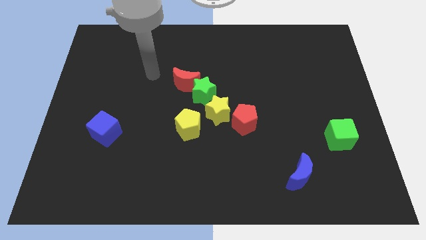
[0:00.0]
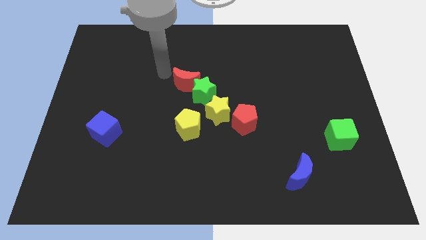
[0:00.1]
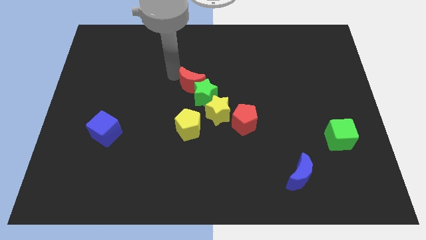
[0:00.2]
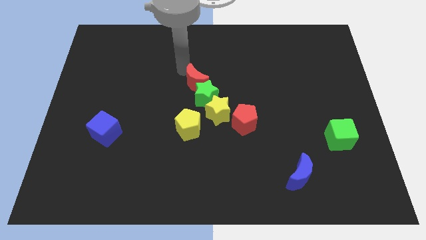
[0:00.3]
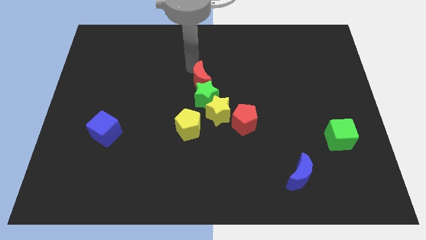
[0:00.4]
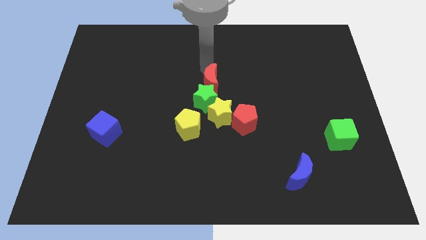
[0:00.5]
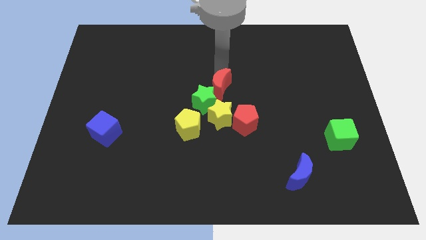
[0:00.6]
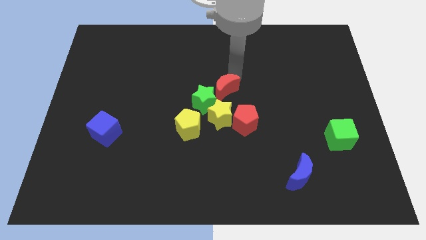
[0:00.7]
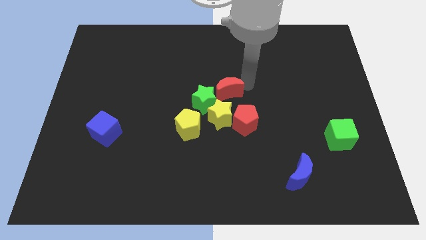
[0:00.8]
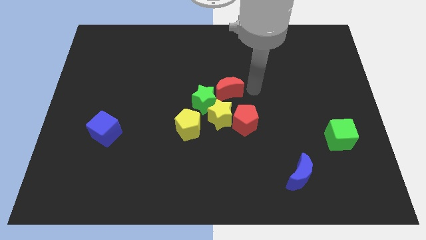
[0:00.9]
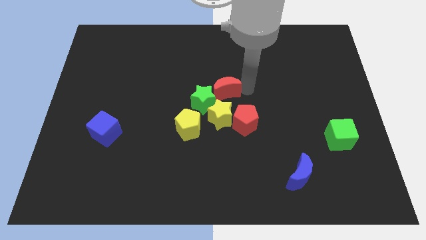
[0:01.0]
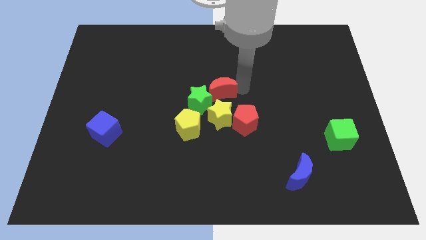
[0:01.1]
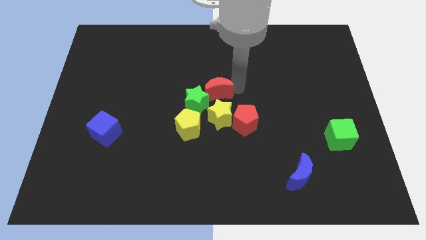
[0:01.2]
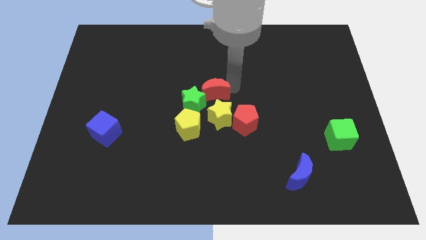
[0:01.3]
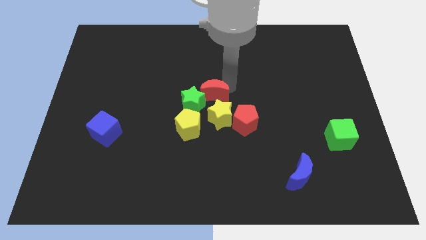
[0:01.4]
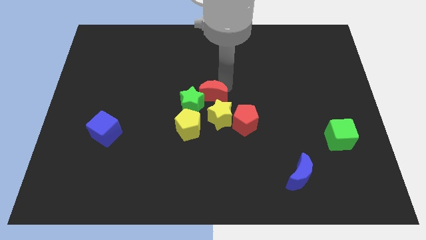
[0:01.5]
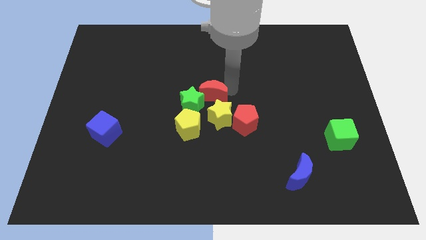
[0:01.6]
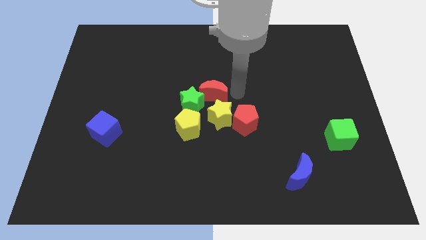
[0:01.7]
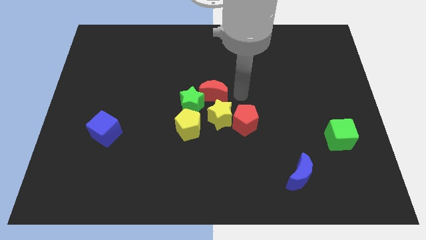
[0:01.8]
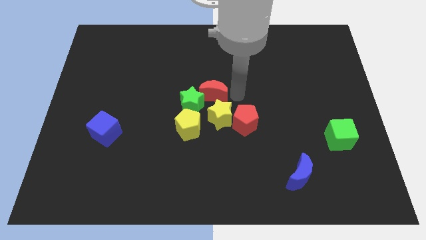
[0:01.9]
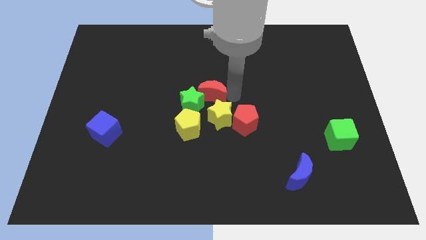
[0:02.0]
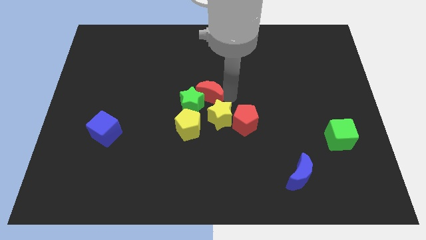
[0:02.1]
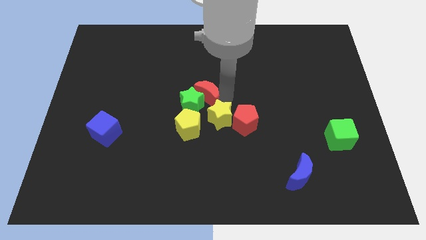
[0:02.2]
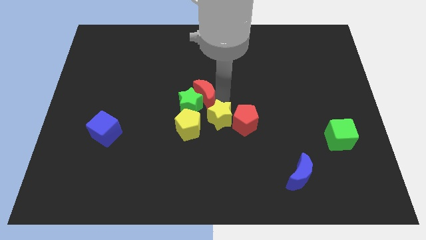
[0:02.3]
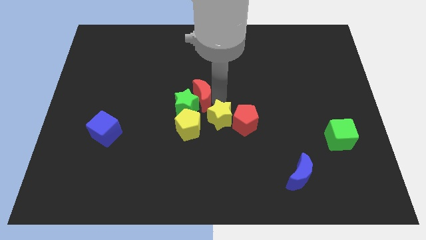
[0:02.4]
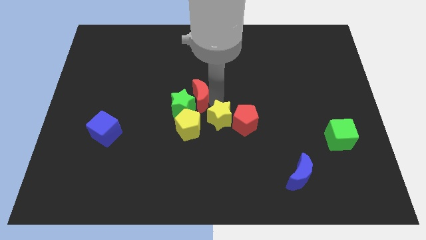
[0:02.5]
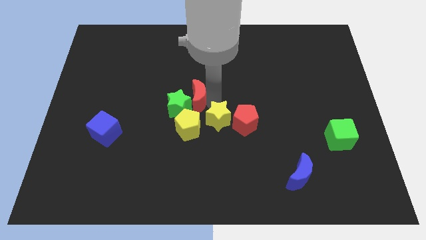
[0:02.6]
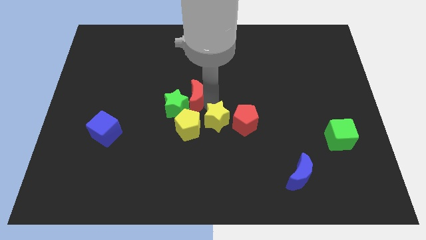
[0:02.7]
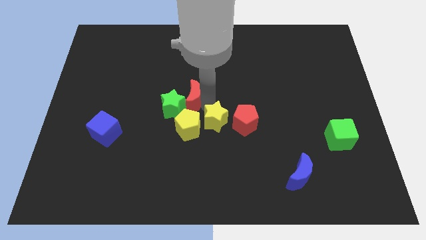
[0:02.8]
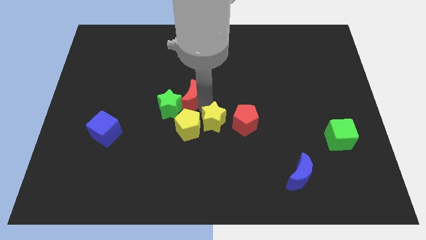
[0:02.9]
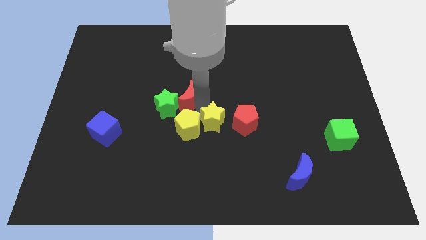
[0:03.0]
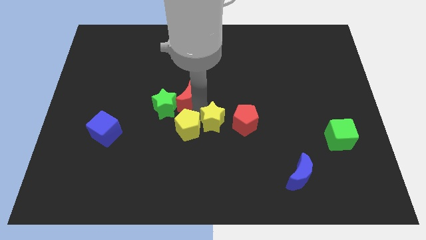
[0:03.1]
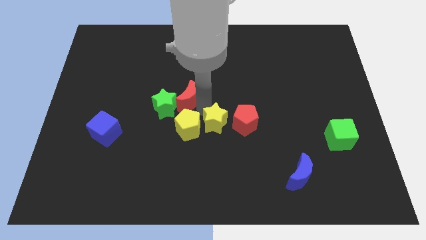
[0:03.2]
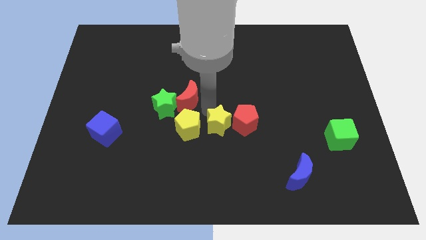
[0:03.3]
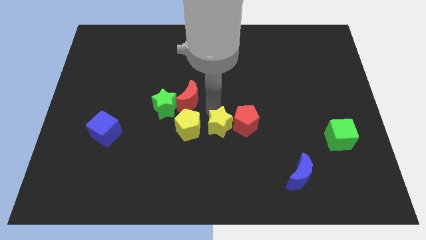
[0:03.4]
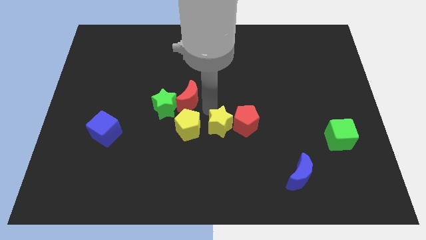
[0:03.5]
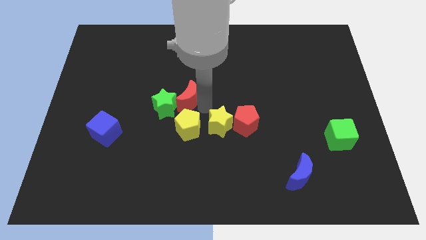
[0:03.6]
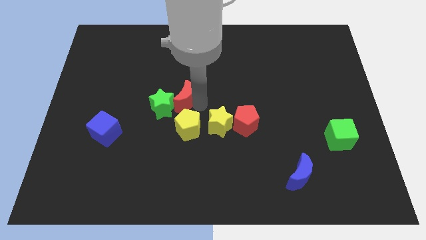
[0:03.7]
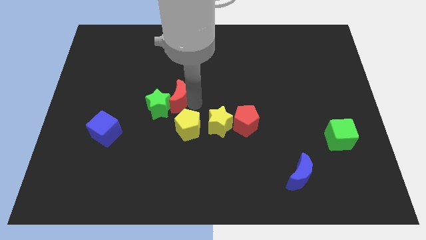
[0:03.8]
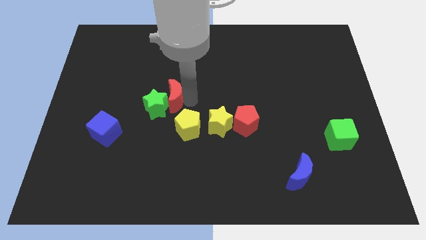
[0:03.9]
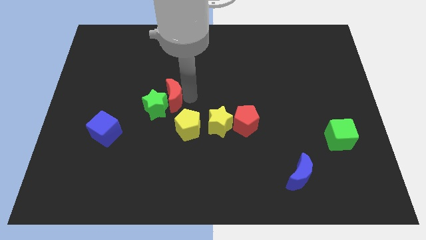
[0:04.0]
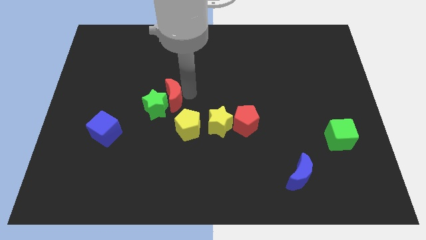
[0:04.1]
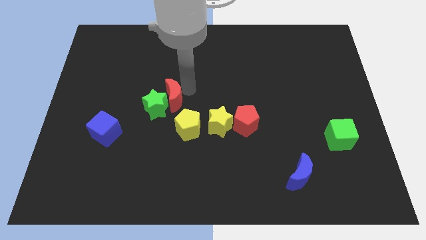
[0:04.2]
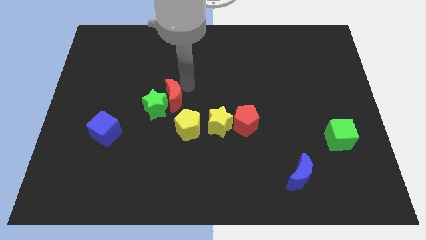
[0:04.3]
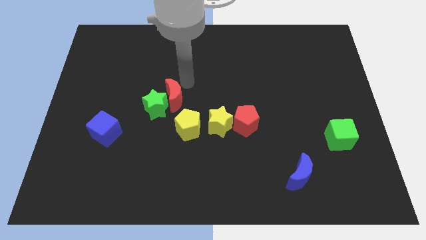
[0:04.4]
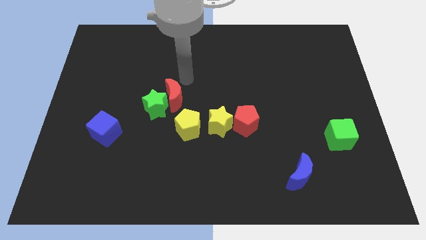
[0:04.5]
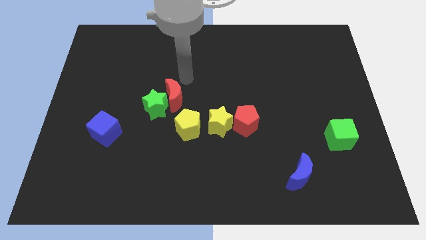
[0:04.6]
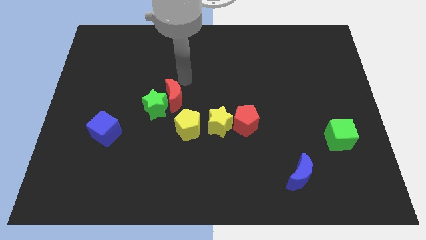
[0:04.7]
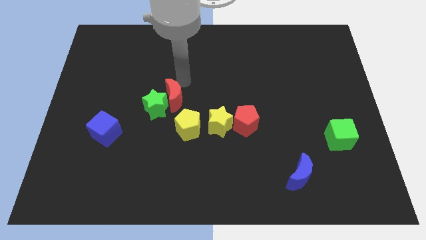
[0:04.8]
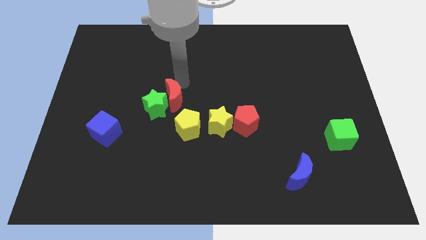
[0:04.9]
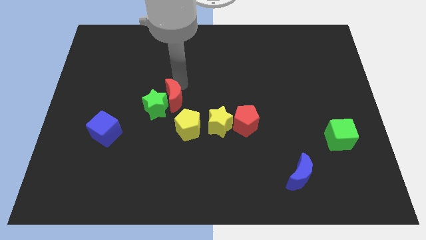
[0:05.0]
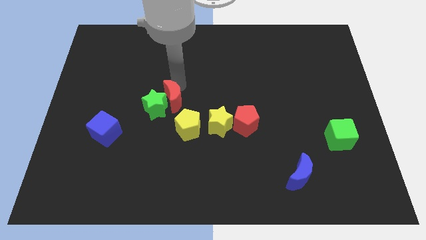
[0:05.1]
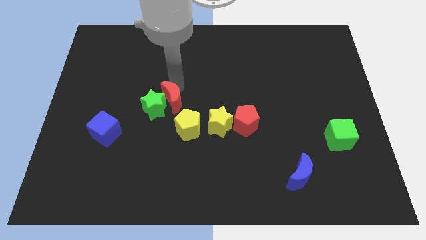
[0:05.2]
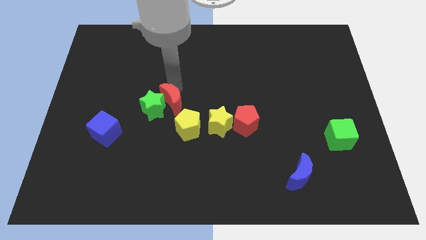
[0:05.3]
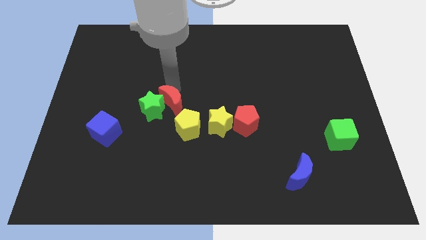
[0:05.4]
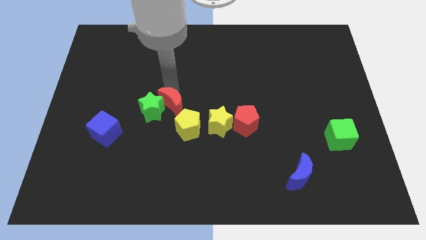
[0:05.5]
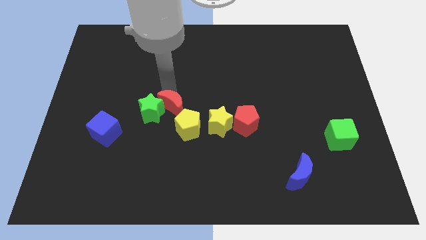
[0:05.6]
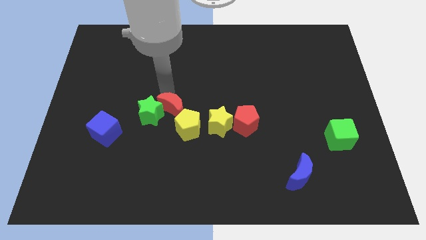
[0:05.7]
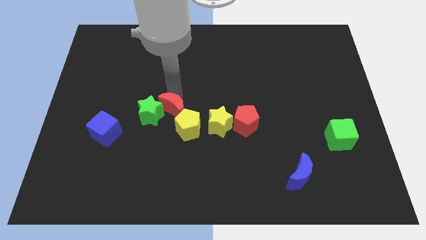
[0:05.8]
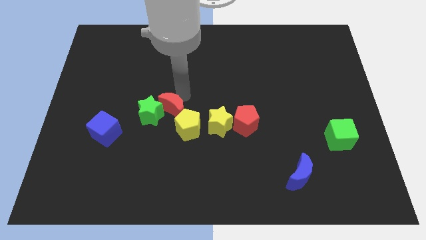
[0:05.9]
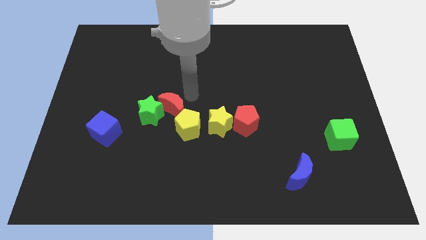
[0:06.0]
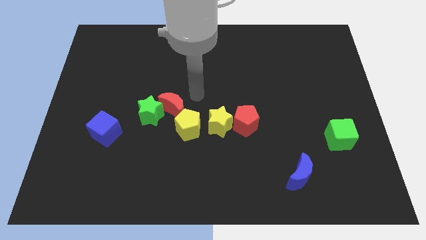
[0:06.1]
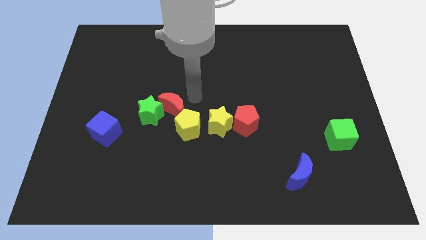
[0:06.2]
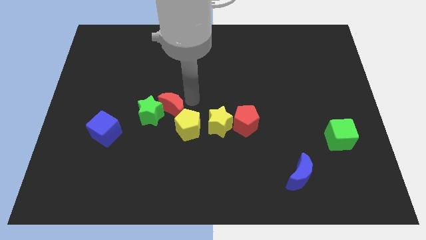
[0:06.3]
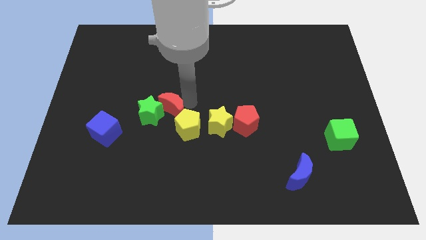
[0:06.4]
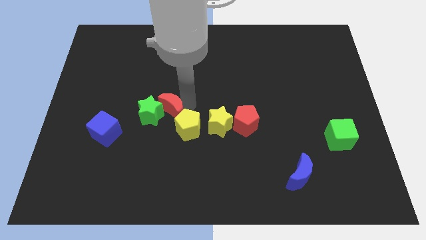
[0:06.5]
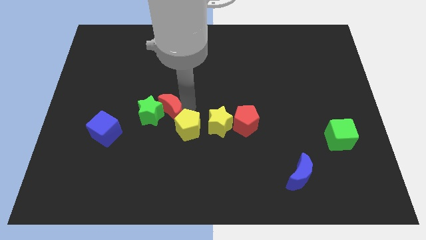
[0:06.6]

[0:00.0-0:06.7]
push the red moon to the left of the yellow pentagon
